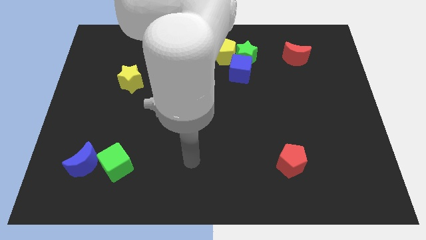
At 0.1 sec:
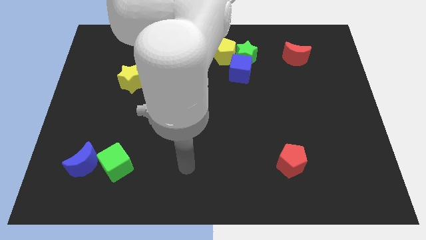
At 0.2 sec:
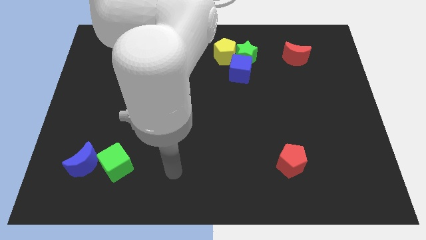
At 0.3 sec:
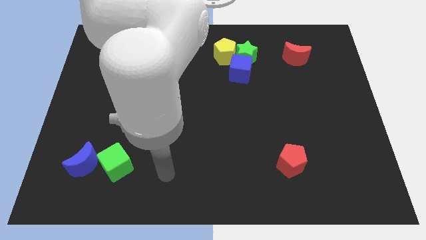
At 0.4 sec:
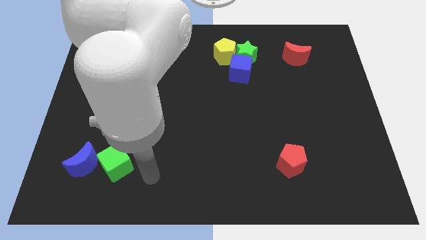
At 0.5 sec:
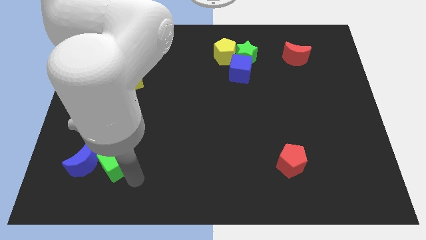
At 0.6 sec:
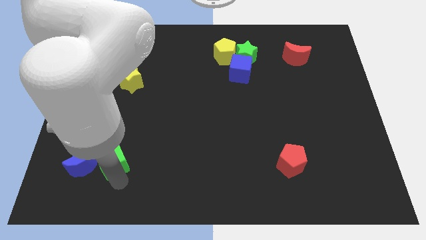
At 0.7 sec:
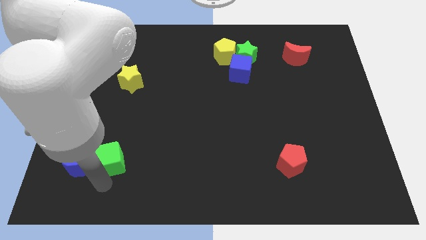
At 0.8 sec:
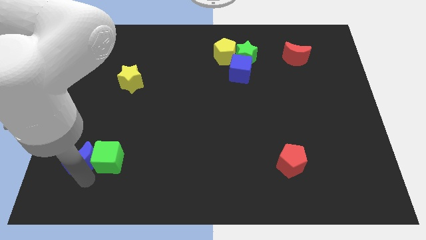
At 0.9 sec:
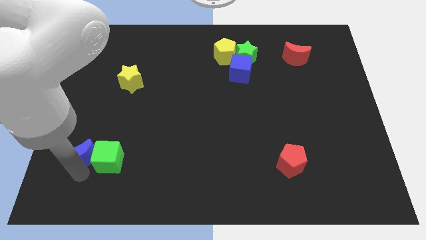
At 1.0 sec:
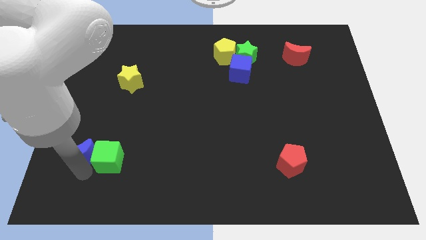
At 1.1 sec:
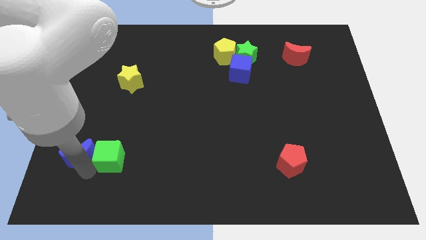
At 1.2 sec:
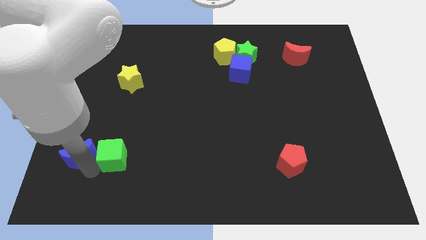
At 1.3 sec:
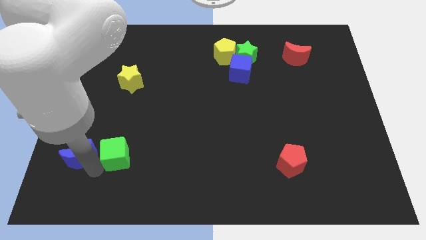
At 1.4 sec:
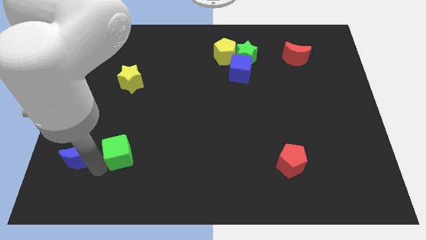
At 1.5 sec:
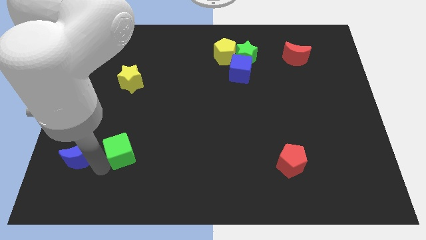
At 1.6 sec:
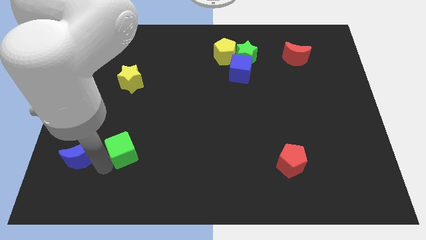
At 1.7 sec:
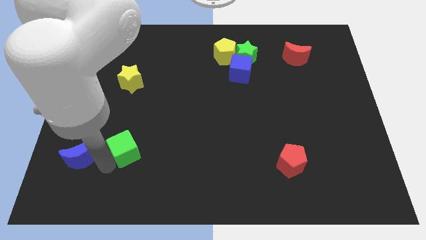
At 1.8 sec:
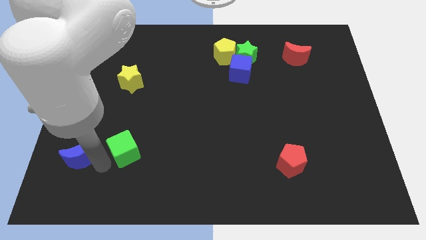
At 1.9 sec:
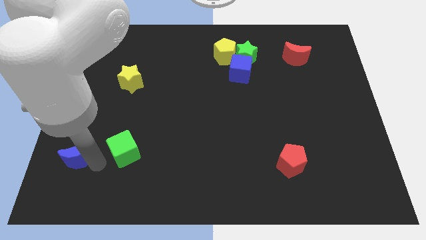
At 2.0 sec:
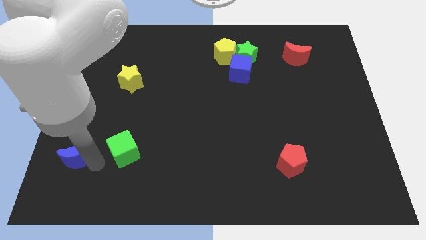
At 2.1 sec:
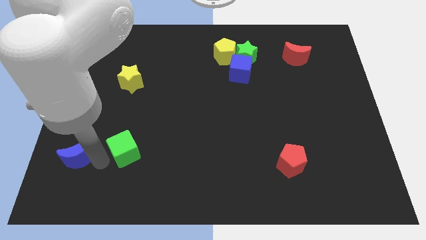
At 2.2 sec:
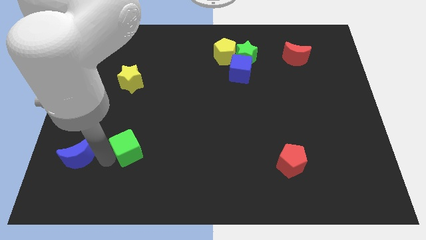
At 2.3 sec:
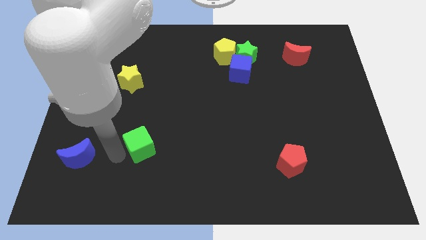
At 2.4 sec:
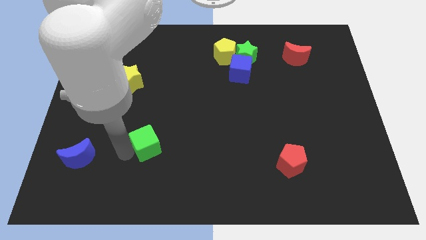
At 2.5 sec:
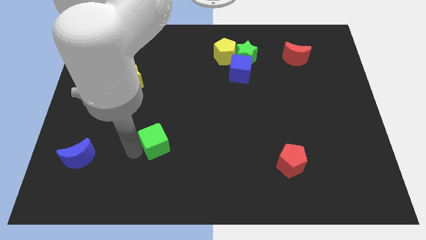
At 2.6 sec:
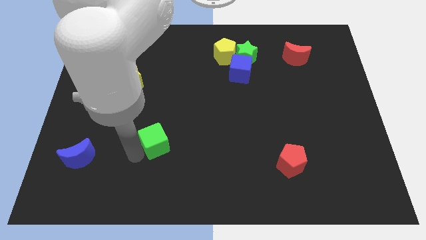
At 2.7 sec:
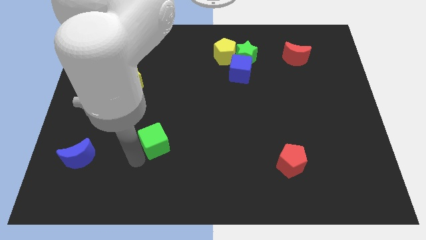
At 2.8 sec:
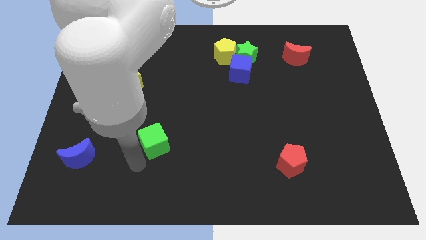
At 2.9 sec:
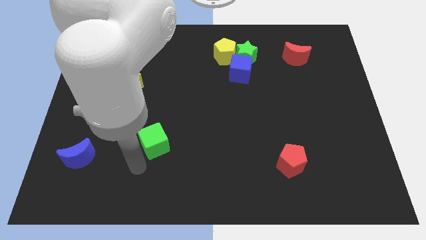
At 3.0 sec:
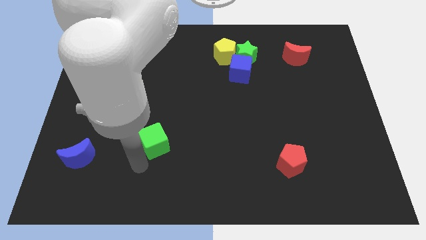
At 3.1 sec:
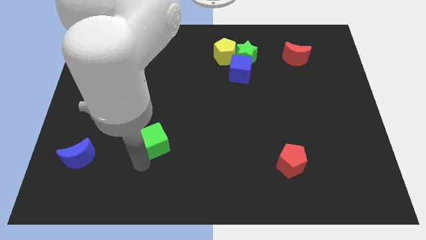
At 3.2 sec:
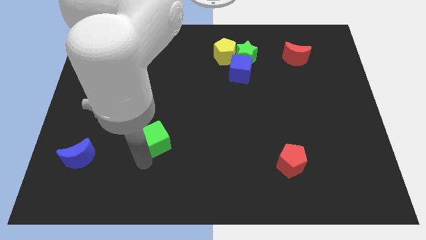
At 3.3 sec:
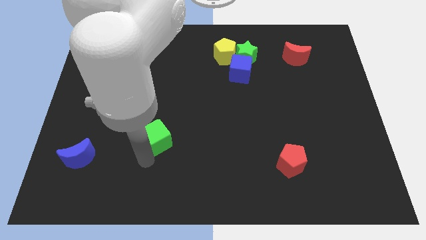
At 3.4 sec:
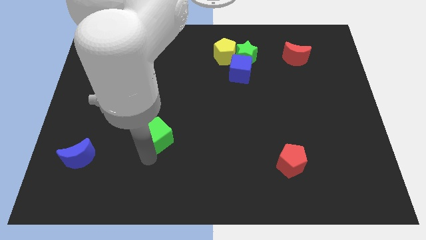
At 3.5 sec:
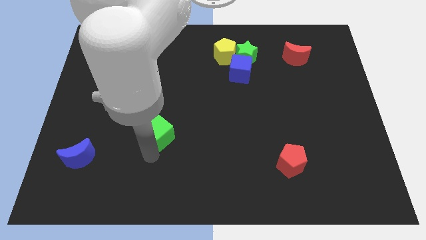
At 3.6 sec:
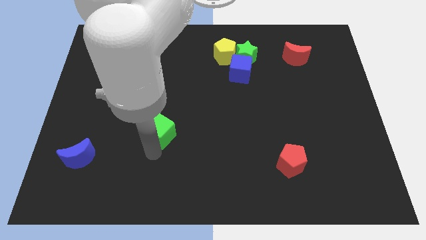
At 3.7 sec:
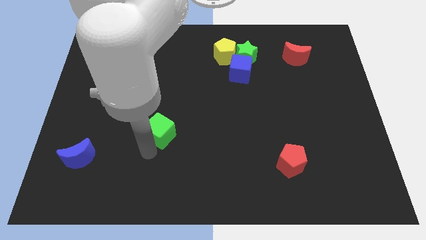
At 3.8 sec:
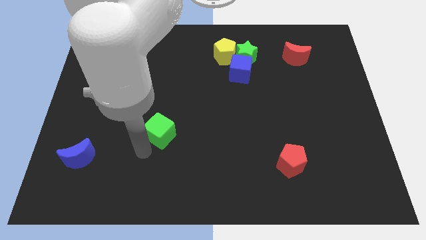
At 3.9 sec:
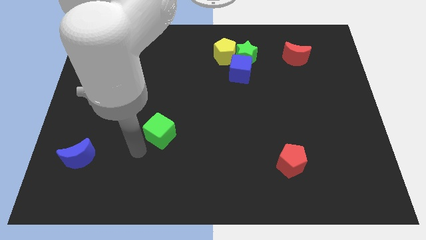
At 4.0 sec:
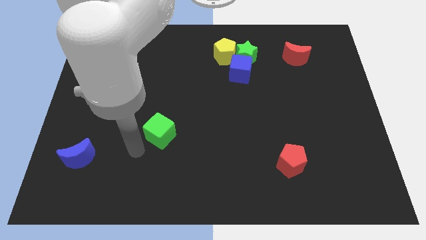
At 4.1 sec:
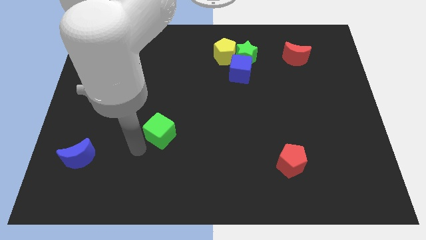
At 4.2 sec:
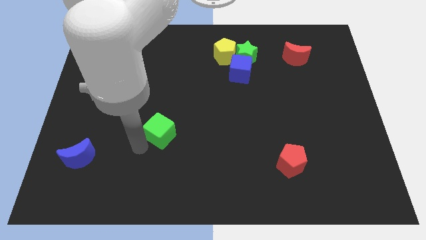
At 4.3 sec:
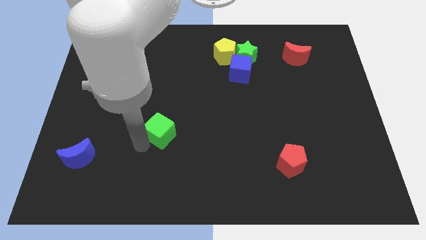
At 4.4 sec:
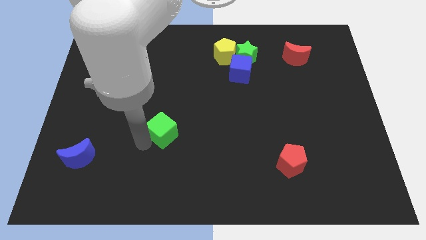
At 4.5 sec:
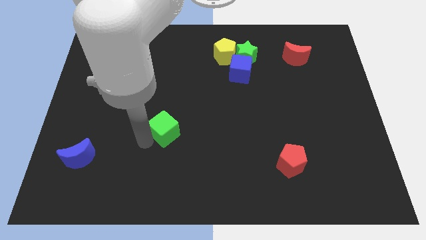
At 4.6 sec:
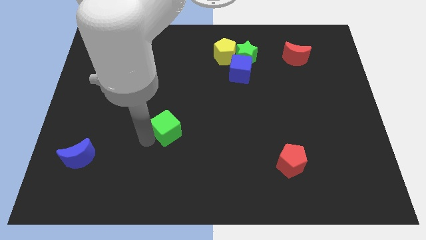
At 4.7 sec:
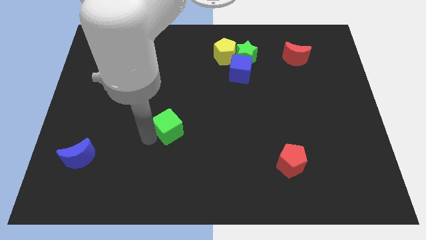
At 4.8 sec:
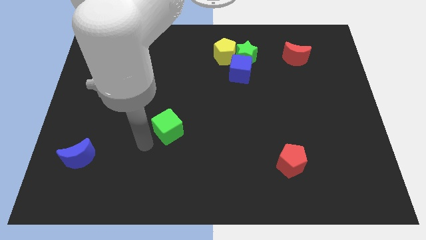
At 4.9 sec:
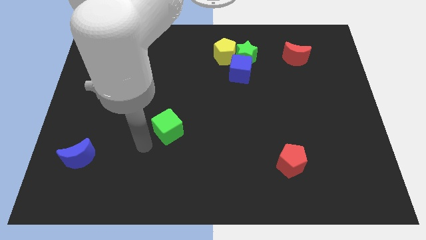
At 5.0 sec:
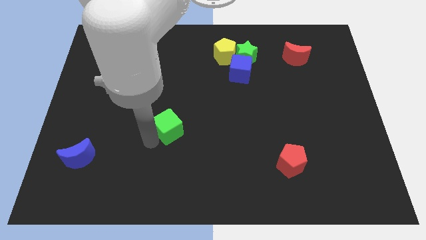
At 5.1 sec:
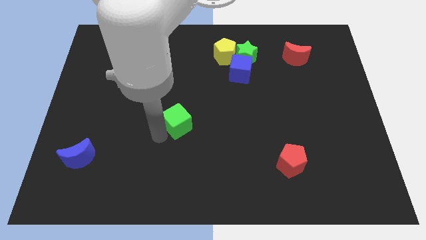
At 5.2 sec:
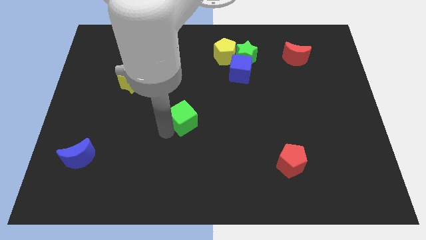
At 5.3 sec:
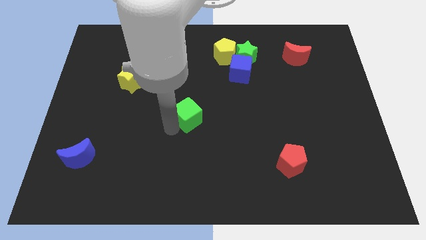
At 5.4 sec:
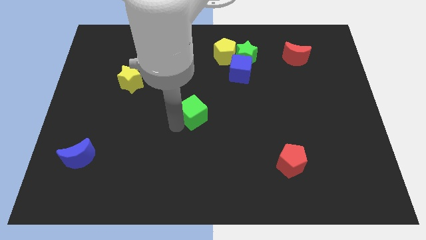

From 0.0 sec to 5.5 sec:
move the green cube upwards and right

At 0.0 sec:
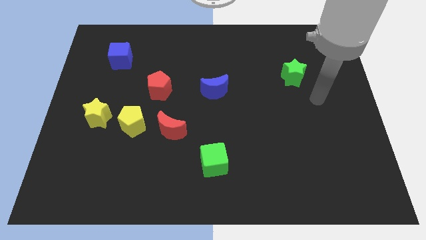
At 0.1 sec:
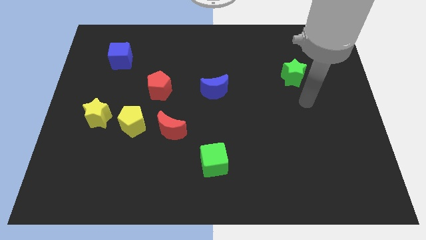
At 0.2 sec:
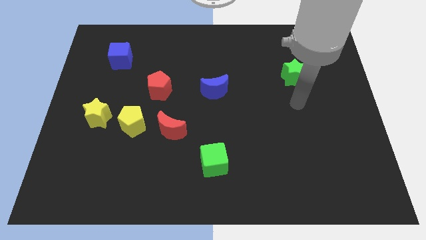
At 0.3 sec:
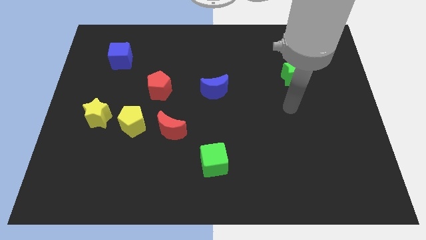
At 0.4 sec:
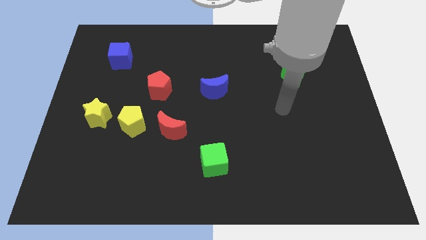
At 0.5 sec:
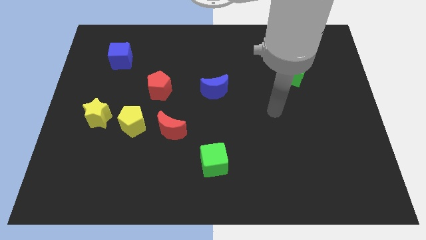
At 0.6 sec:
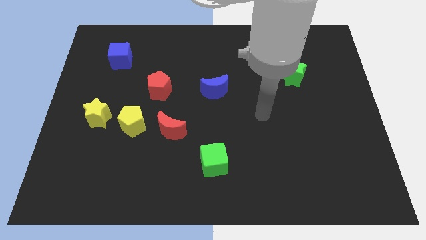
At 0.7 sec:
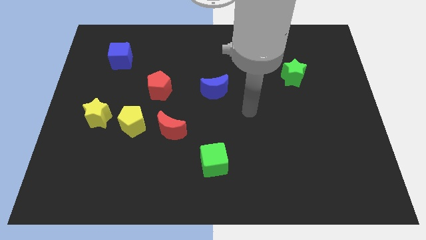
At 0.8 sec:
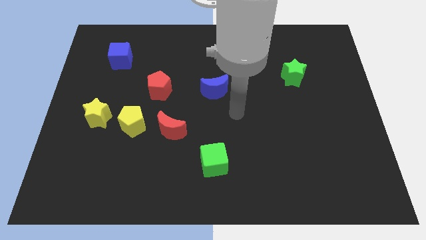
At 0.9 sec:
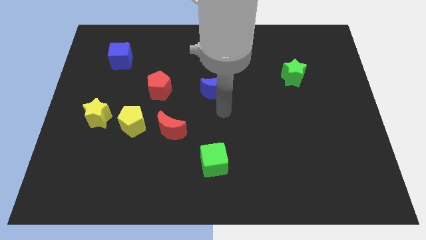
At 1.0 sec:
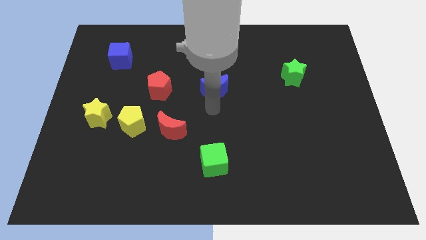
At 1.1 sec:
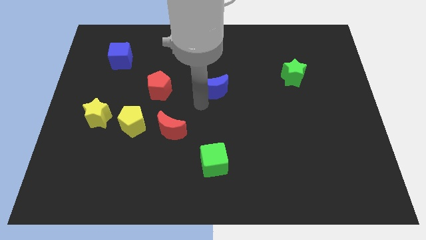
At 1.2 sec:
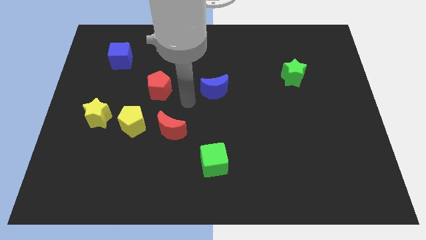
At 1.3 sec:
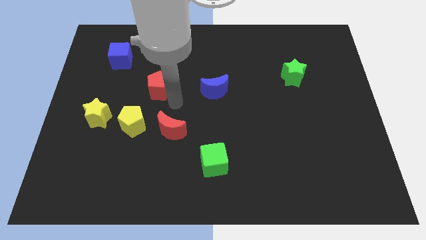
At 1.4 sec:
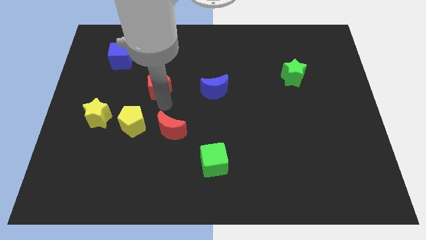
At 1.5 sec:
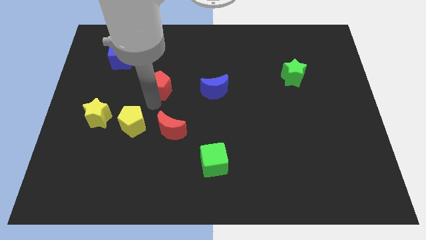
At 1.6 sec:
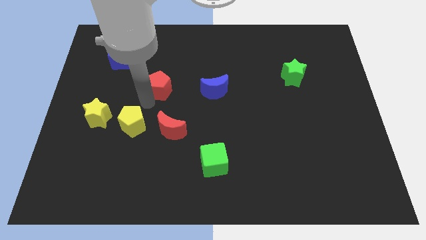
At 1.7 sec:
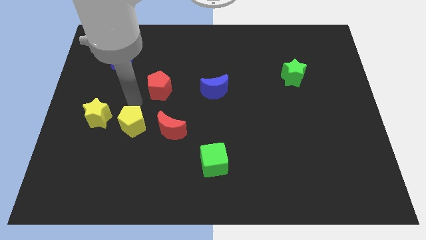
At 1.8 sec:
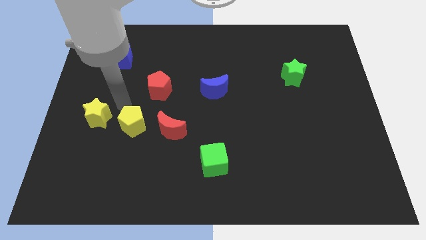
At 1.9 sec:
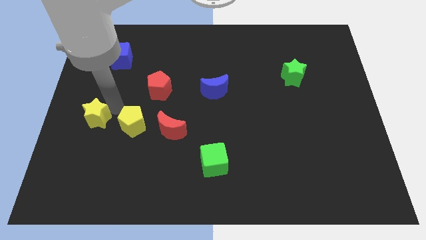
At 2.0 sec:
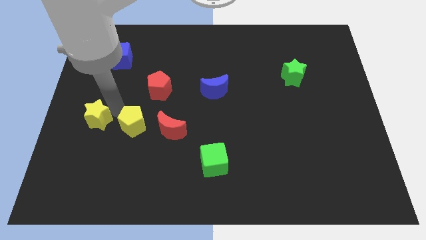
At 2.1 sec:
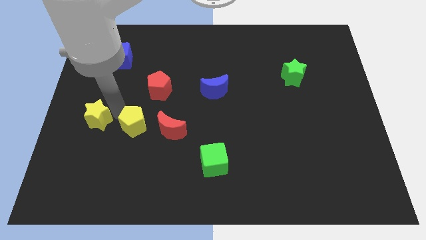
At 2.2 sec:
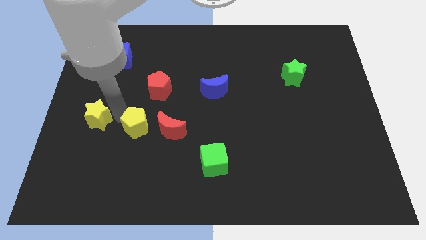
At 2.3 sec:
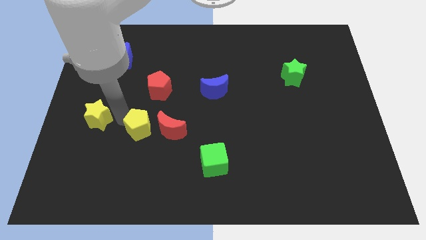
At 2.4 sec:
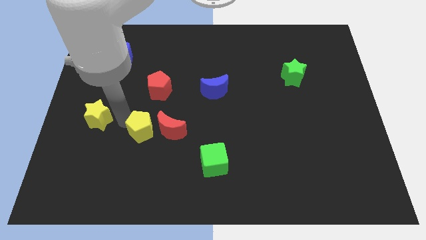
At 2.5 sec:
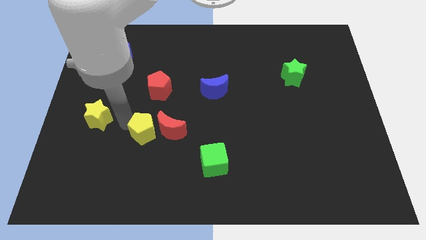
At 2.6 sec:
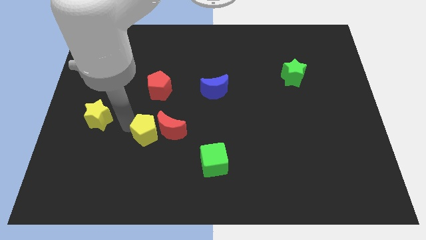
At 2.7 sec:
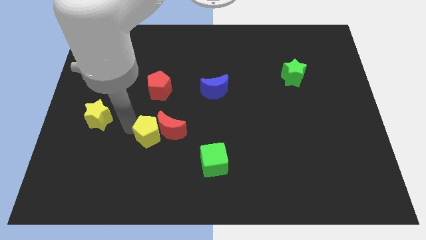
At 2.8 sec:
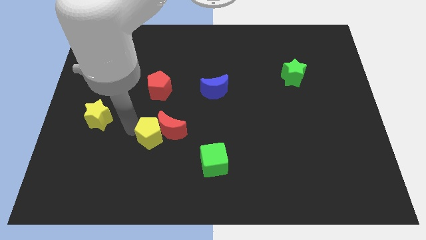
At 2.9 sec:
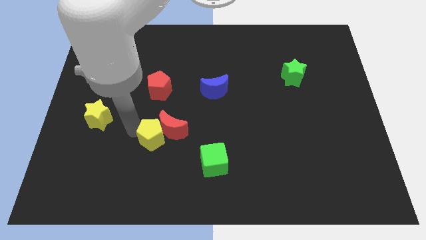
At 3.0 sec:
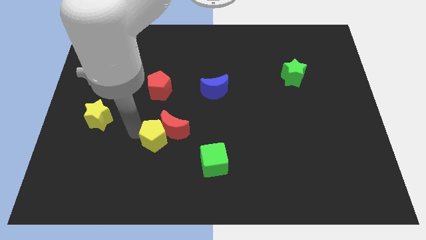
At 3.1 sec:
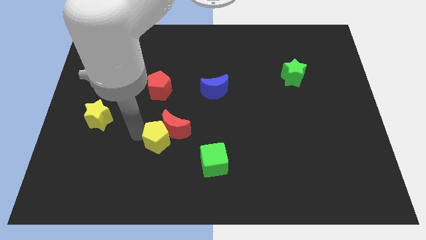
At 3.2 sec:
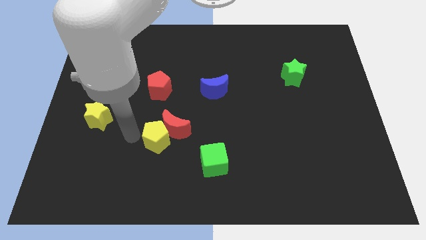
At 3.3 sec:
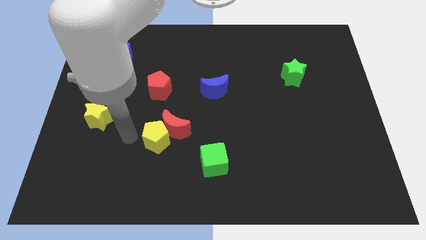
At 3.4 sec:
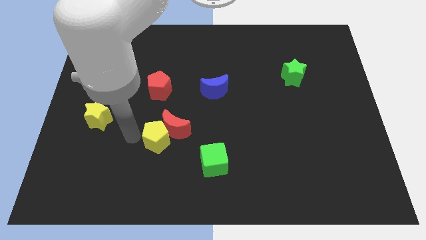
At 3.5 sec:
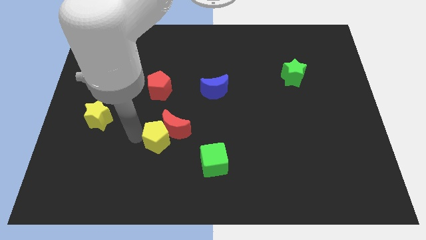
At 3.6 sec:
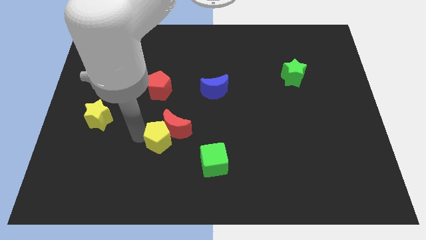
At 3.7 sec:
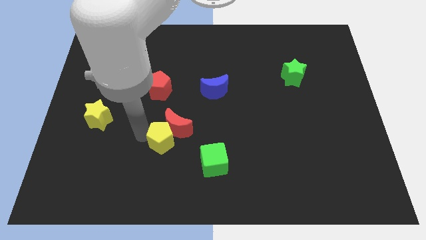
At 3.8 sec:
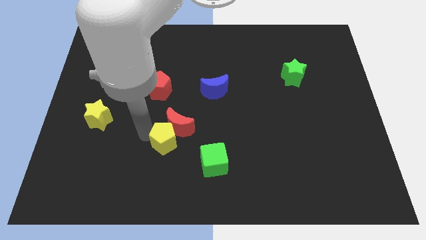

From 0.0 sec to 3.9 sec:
slightly push the yellow pentagon right
